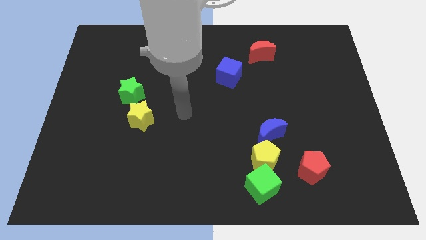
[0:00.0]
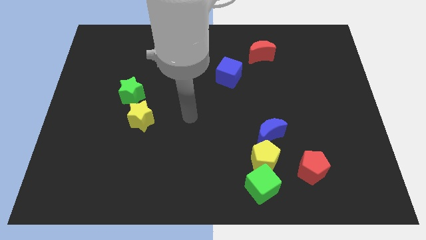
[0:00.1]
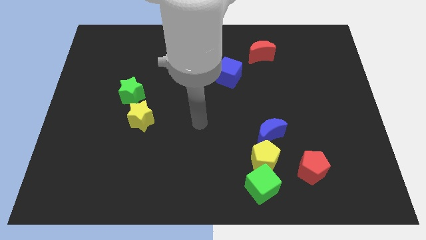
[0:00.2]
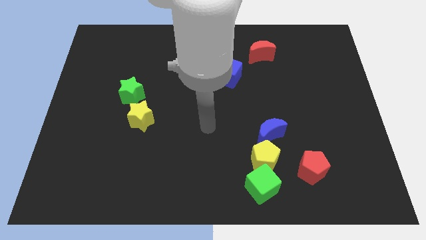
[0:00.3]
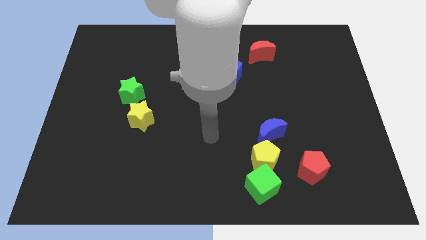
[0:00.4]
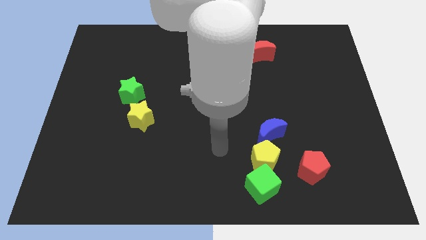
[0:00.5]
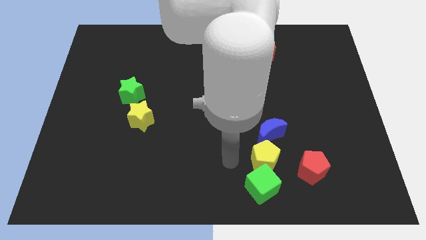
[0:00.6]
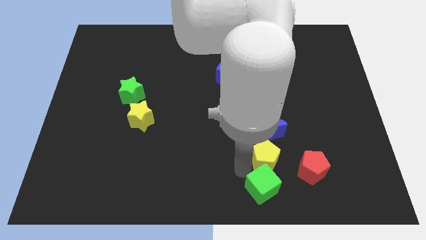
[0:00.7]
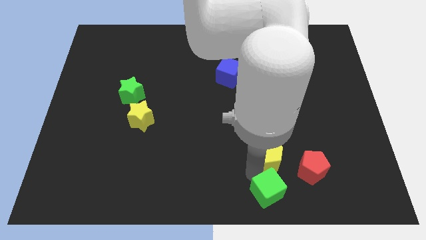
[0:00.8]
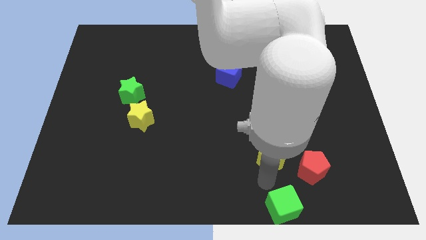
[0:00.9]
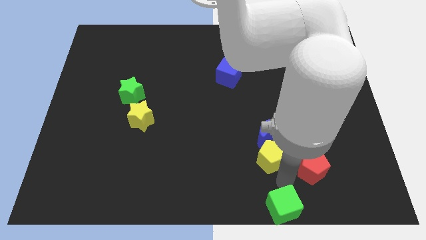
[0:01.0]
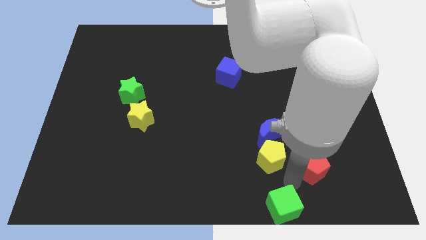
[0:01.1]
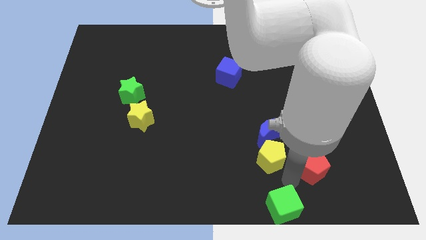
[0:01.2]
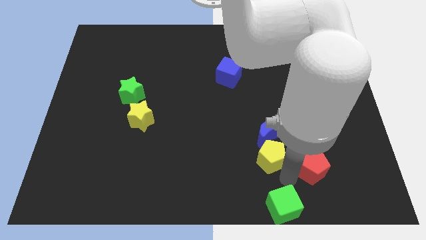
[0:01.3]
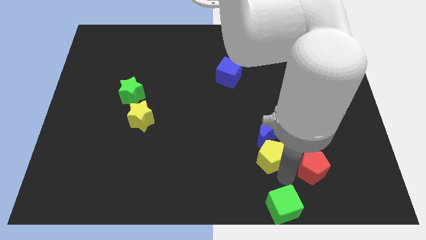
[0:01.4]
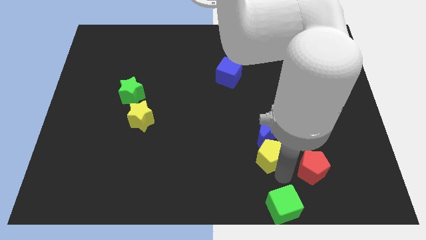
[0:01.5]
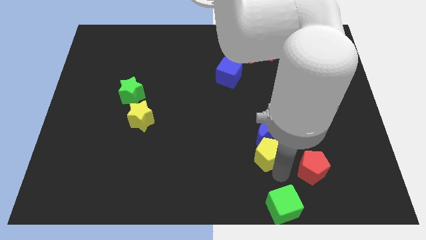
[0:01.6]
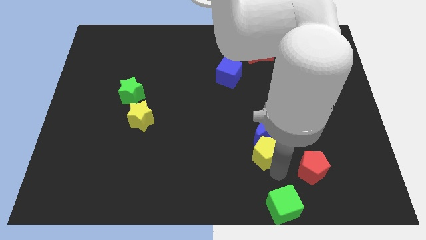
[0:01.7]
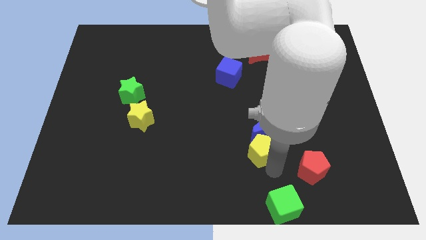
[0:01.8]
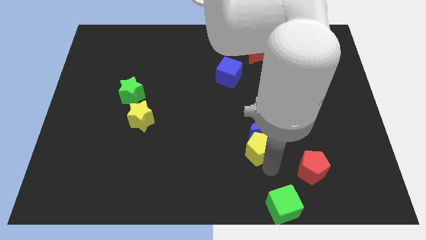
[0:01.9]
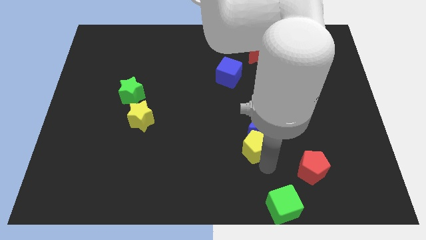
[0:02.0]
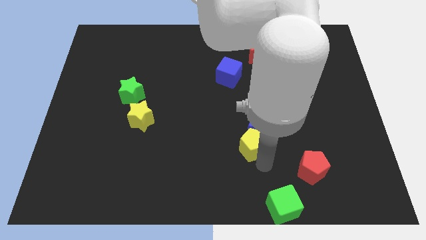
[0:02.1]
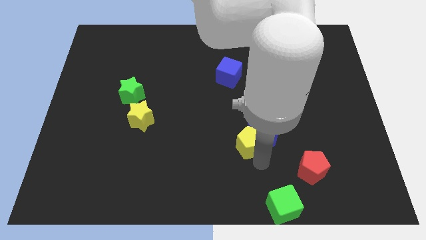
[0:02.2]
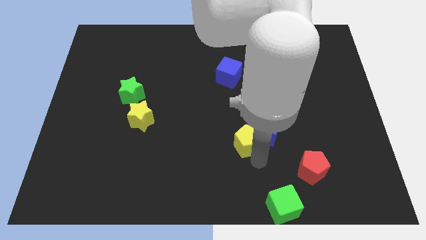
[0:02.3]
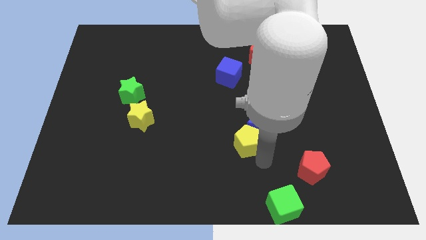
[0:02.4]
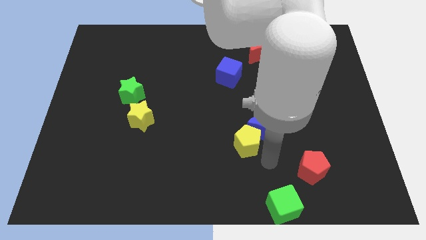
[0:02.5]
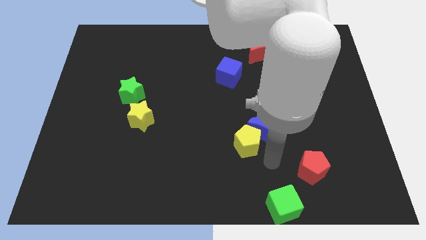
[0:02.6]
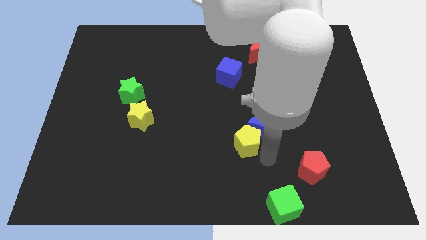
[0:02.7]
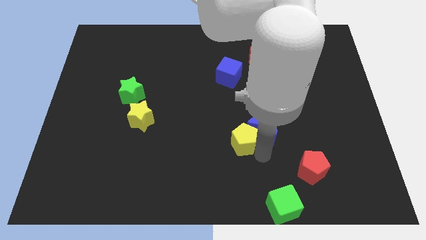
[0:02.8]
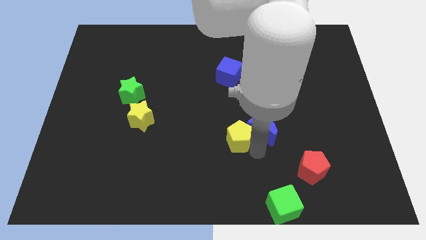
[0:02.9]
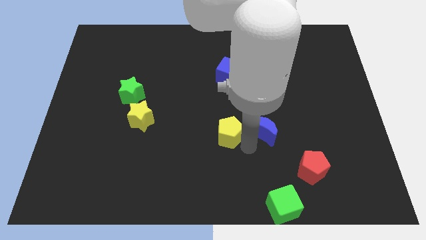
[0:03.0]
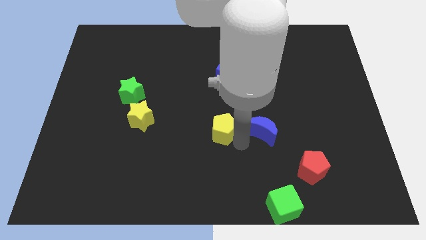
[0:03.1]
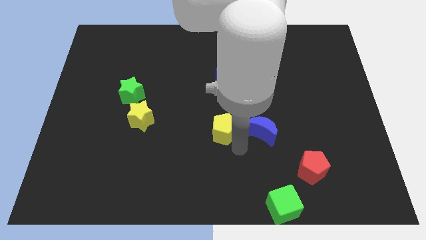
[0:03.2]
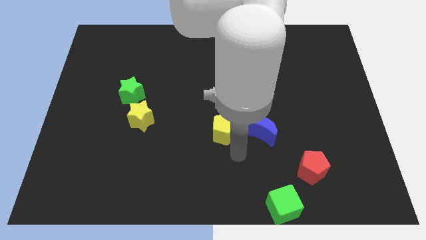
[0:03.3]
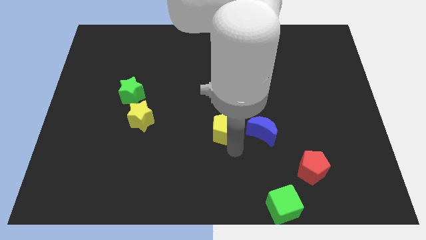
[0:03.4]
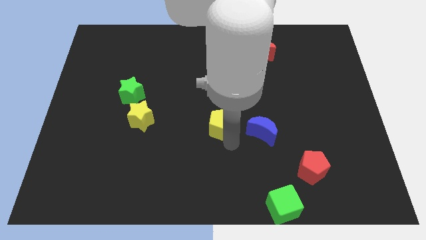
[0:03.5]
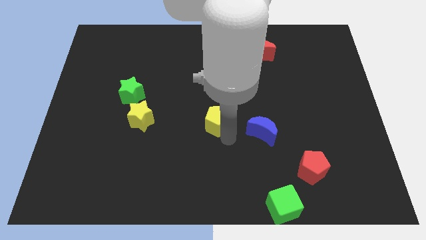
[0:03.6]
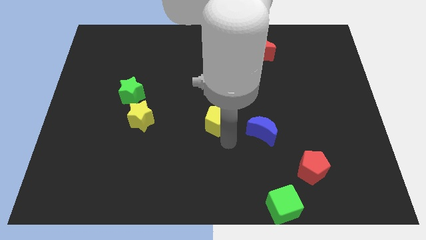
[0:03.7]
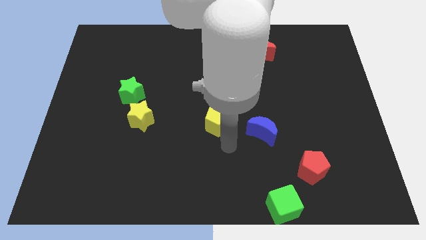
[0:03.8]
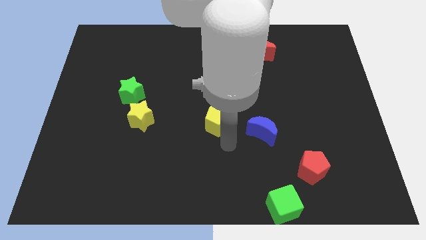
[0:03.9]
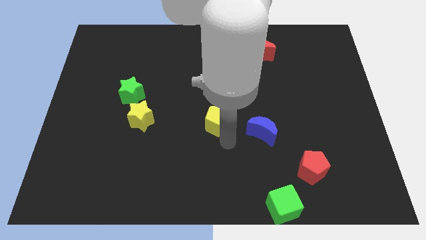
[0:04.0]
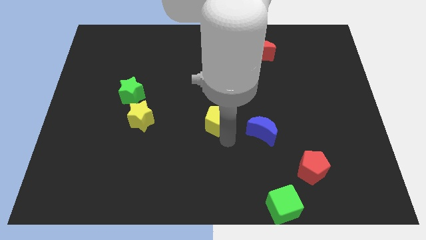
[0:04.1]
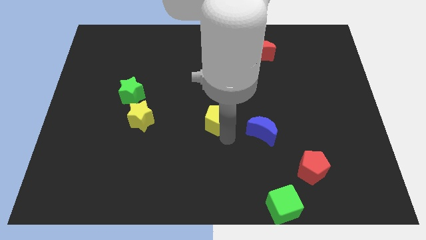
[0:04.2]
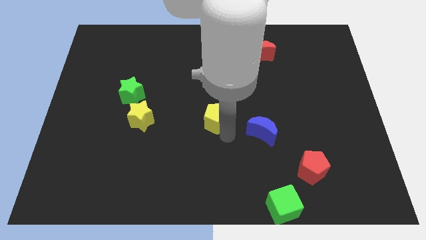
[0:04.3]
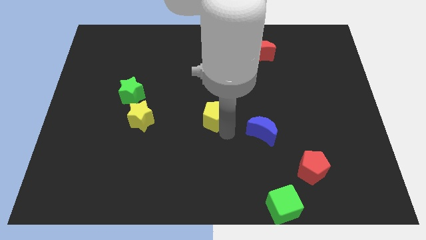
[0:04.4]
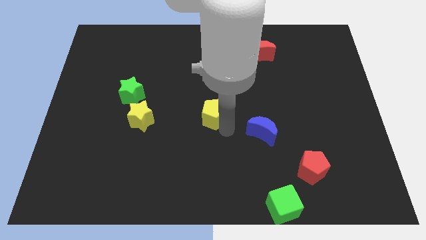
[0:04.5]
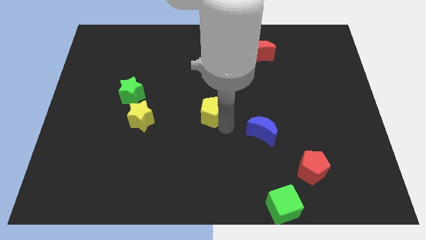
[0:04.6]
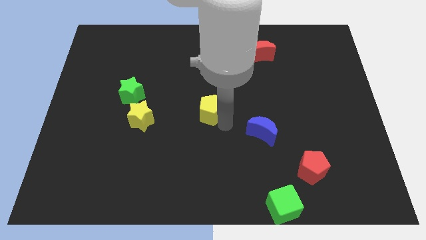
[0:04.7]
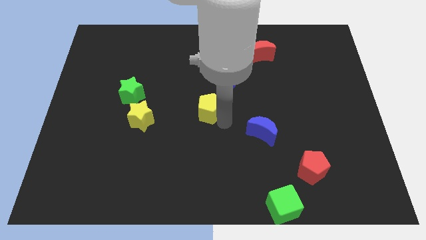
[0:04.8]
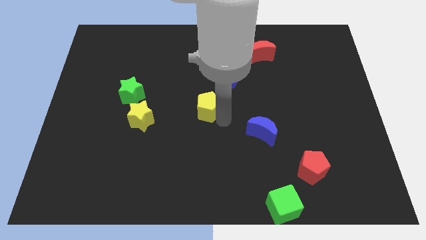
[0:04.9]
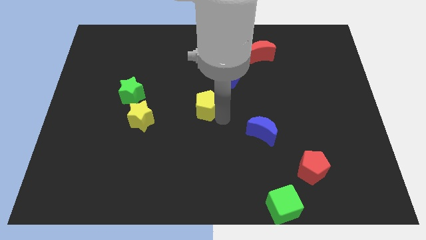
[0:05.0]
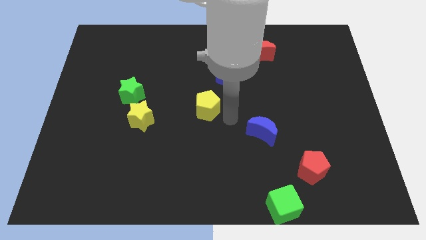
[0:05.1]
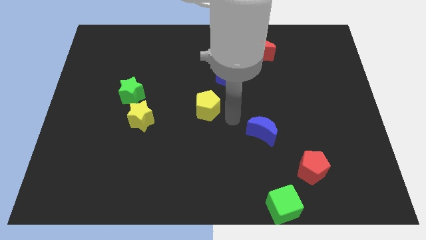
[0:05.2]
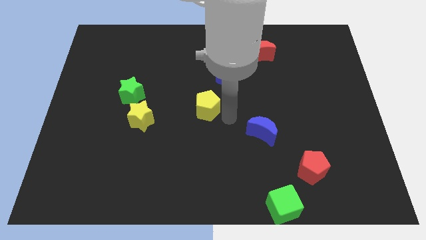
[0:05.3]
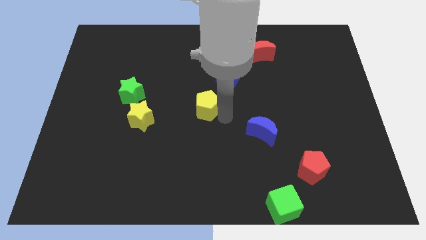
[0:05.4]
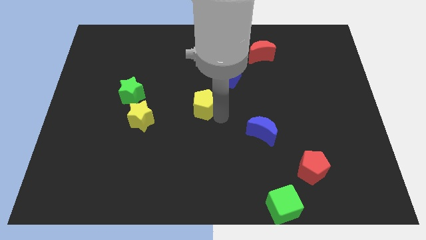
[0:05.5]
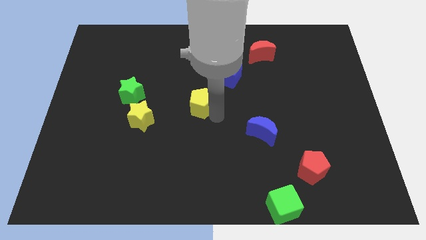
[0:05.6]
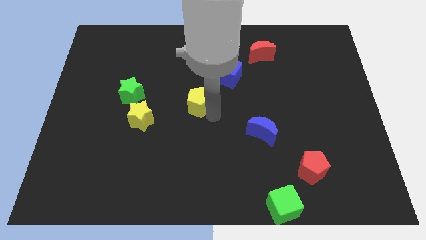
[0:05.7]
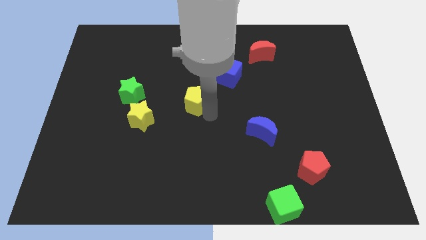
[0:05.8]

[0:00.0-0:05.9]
move the yellow pentagon to the right side of the green star

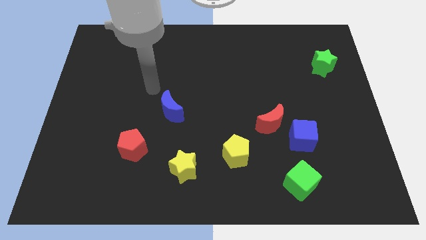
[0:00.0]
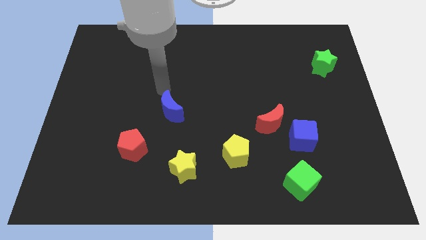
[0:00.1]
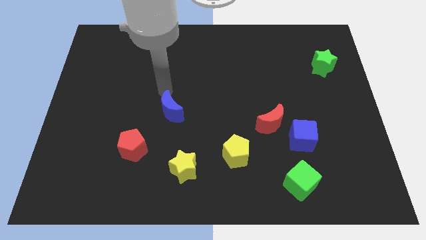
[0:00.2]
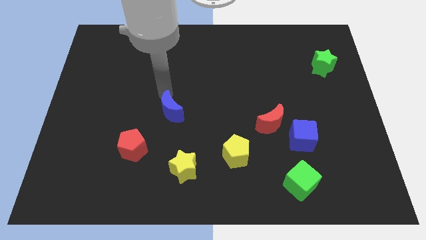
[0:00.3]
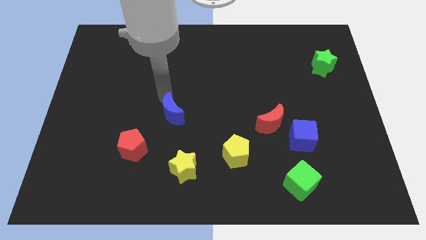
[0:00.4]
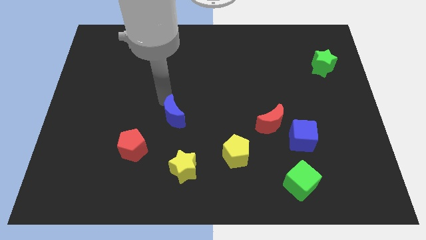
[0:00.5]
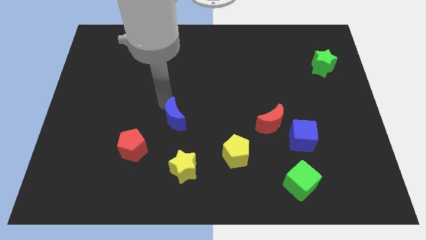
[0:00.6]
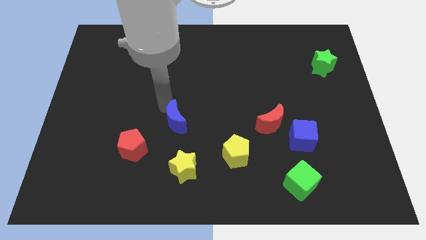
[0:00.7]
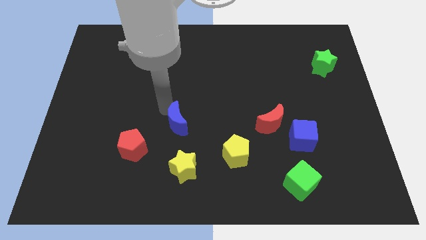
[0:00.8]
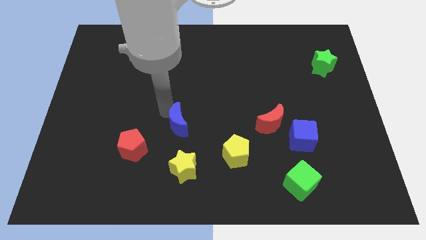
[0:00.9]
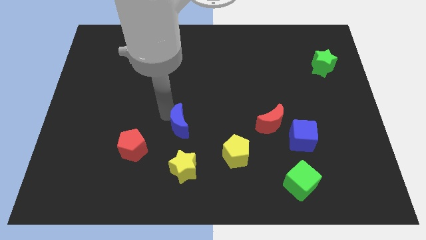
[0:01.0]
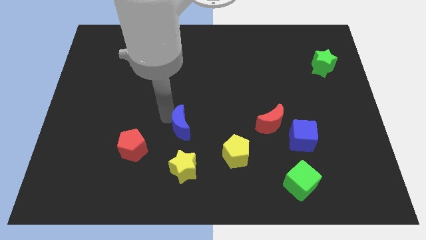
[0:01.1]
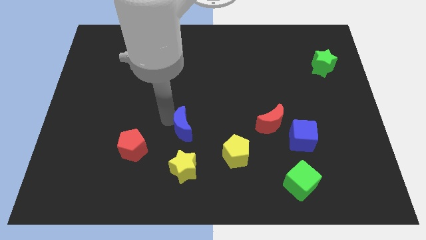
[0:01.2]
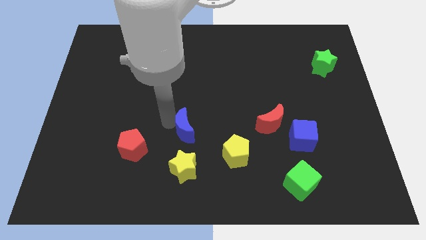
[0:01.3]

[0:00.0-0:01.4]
slide the blue moon to the right of the red pentagon

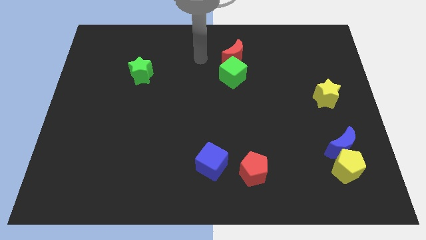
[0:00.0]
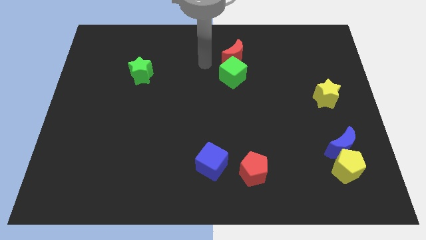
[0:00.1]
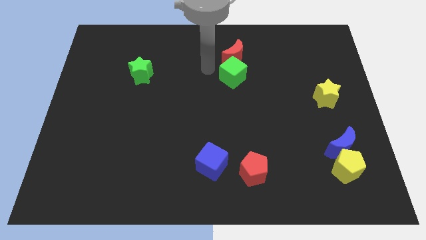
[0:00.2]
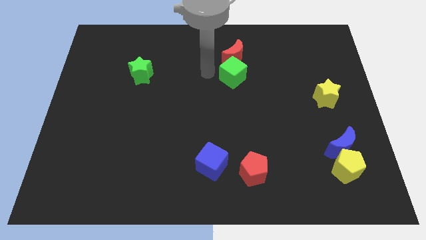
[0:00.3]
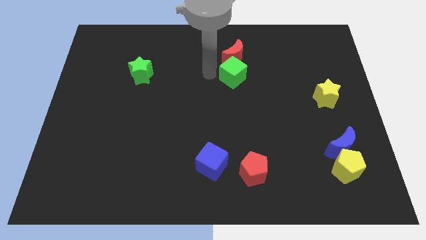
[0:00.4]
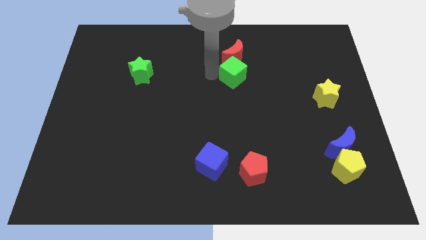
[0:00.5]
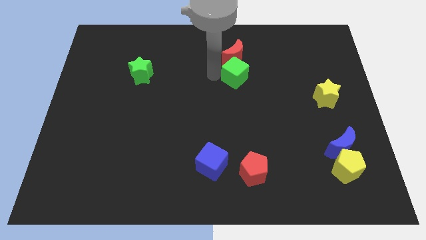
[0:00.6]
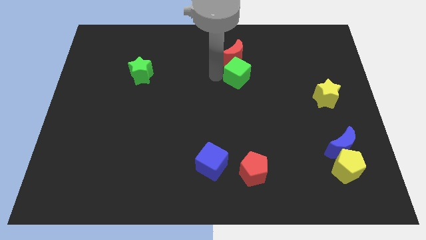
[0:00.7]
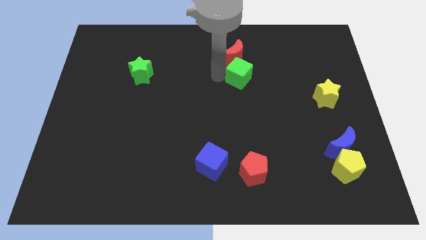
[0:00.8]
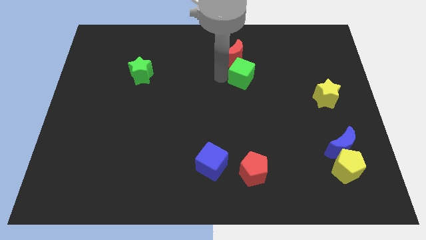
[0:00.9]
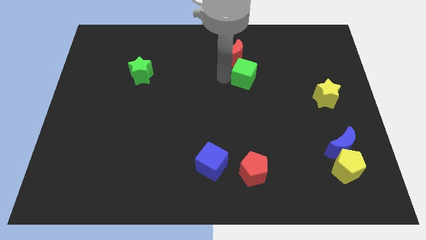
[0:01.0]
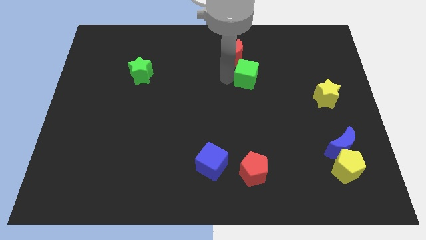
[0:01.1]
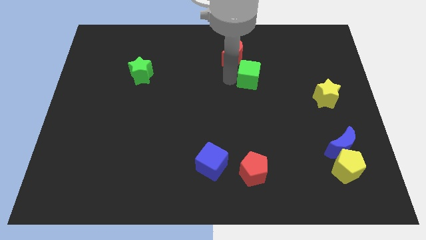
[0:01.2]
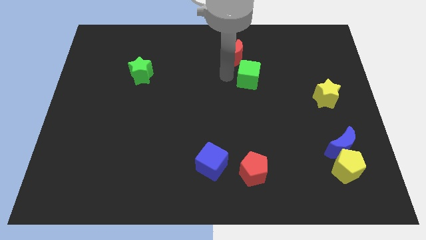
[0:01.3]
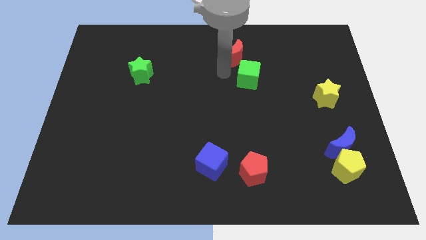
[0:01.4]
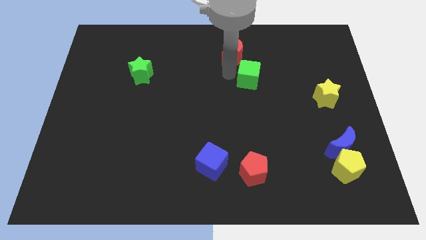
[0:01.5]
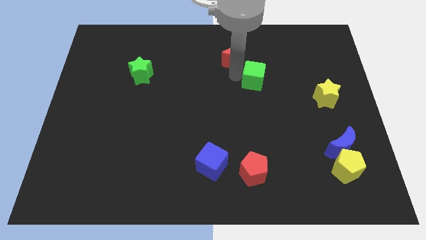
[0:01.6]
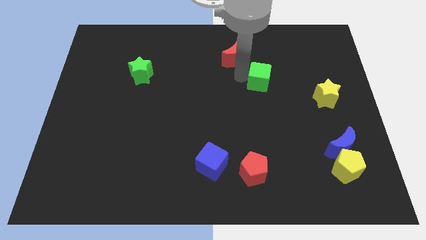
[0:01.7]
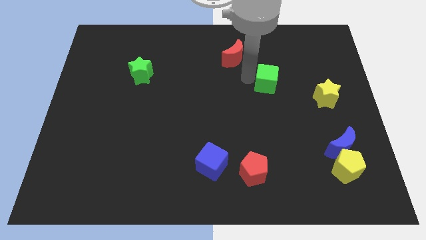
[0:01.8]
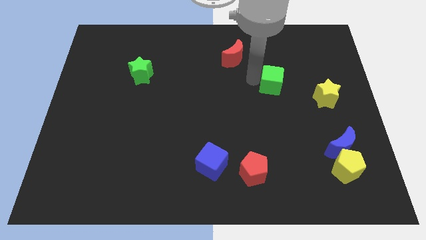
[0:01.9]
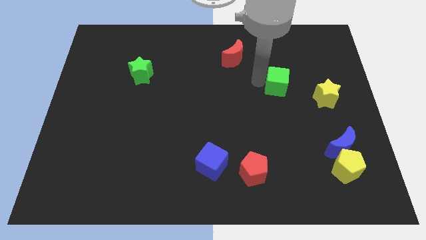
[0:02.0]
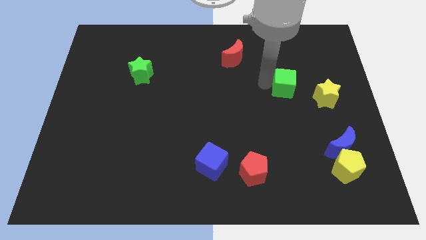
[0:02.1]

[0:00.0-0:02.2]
push the green cube diagonally up and to the left of the yellow star
